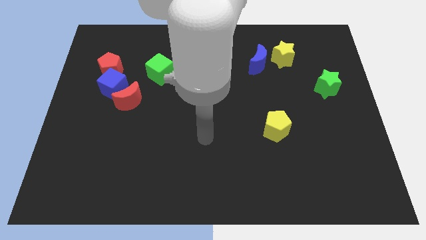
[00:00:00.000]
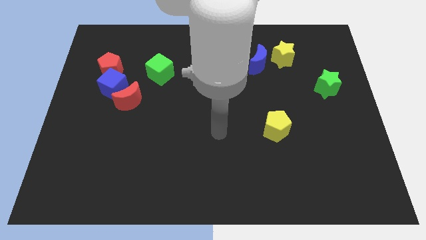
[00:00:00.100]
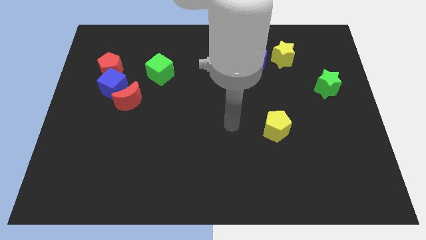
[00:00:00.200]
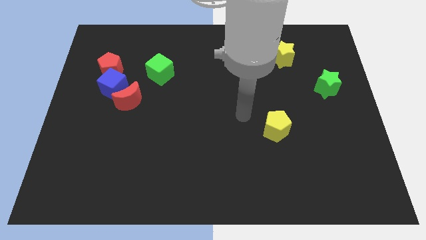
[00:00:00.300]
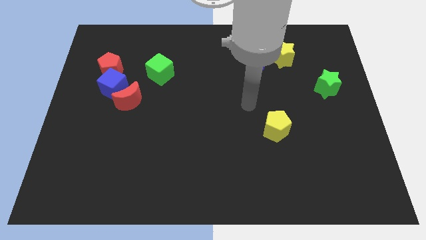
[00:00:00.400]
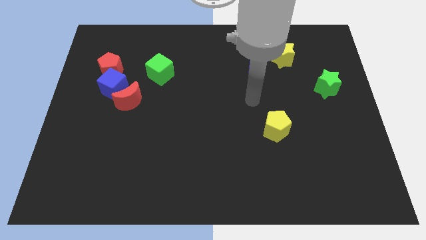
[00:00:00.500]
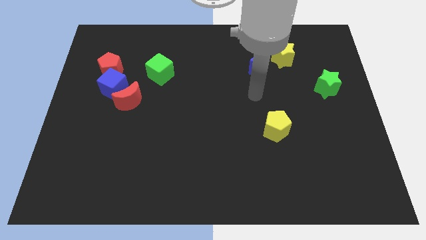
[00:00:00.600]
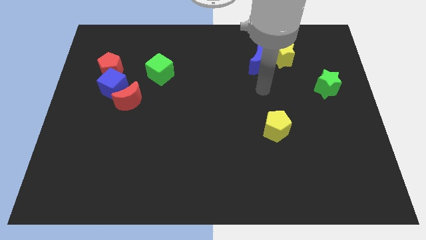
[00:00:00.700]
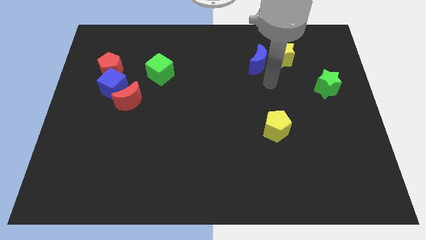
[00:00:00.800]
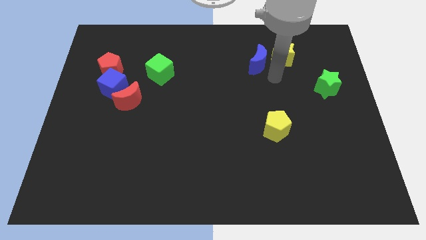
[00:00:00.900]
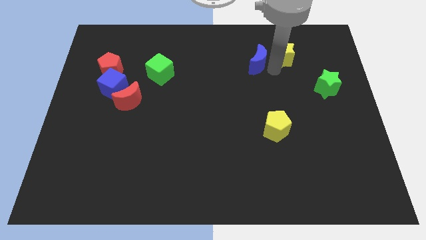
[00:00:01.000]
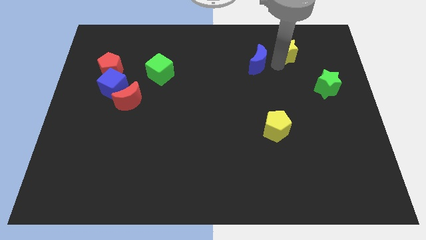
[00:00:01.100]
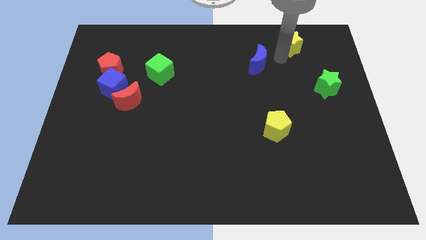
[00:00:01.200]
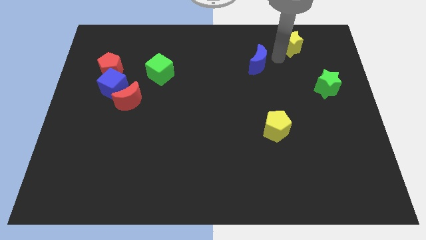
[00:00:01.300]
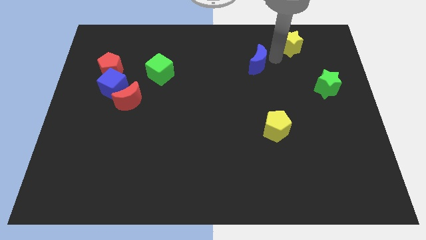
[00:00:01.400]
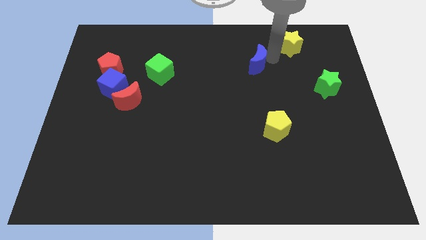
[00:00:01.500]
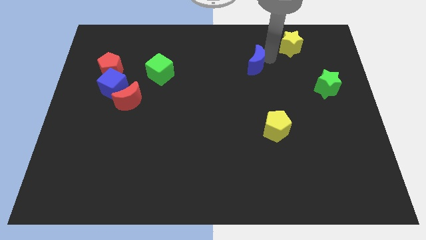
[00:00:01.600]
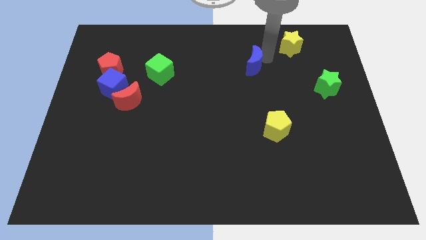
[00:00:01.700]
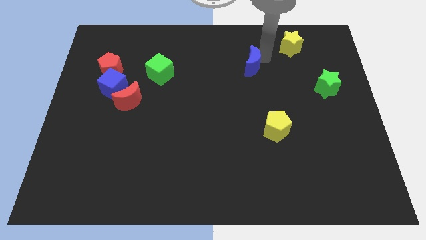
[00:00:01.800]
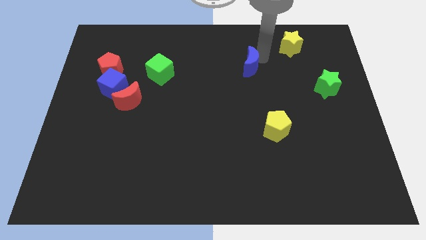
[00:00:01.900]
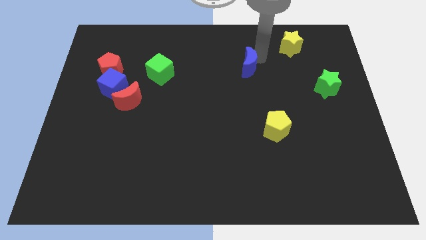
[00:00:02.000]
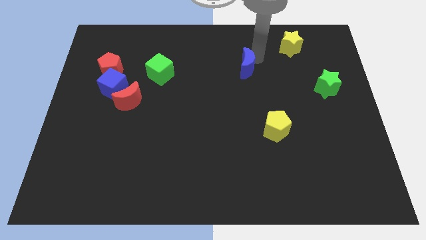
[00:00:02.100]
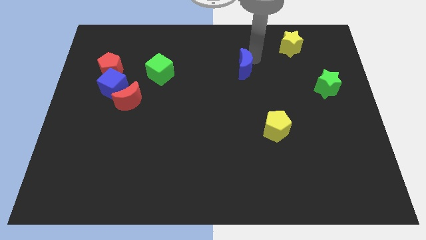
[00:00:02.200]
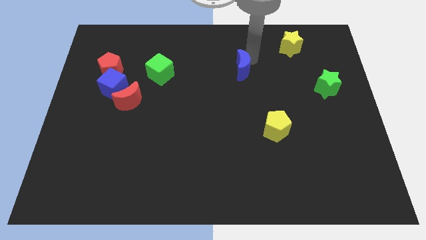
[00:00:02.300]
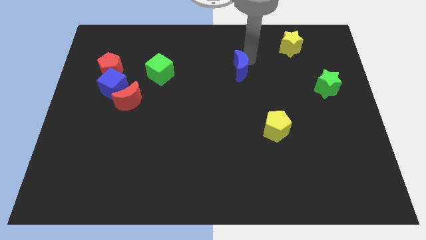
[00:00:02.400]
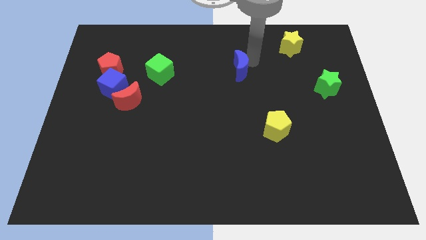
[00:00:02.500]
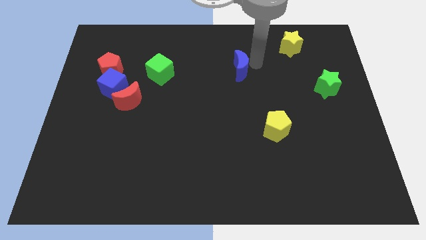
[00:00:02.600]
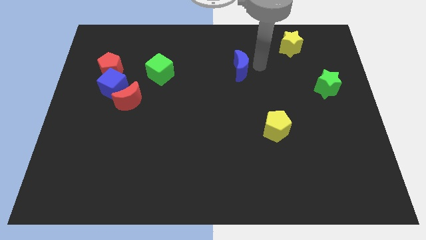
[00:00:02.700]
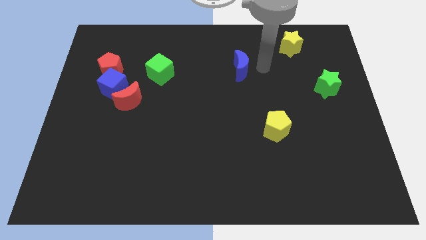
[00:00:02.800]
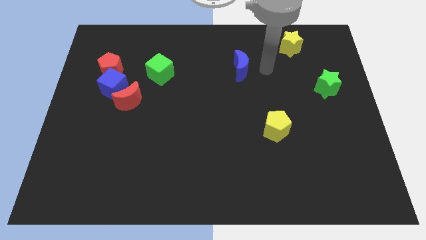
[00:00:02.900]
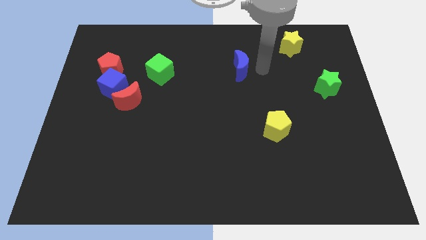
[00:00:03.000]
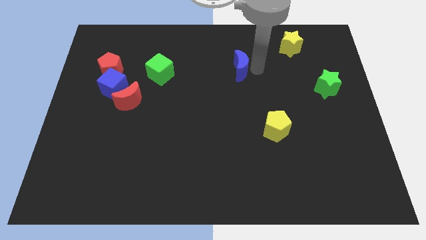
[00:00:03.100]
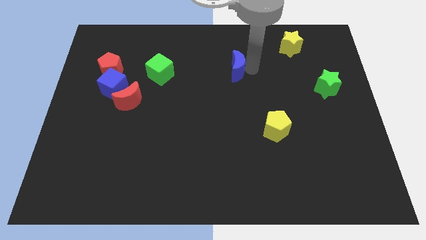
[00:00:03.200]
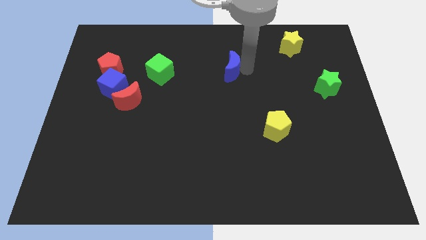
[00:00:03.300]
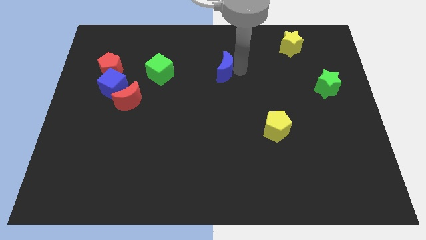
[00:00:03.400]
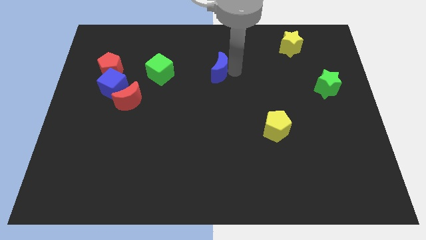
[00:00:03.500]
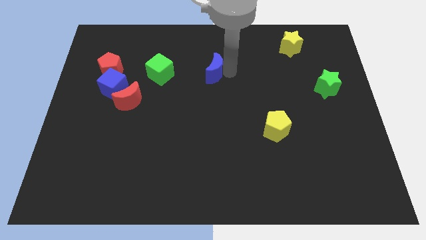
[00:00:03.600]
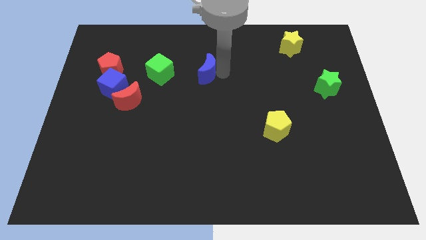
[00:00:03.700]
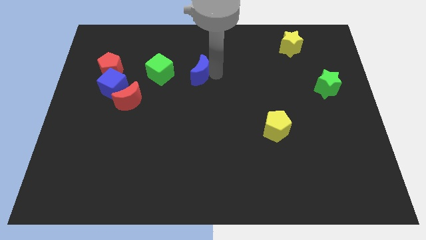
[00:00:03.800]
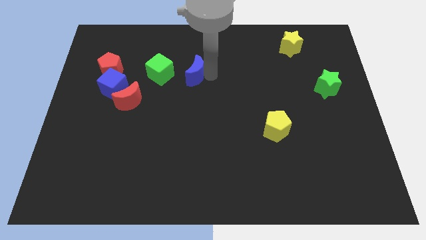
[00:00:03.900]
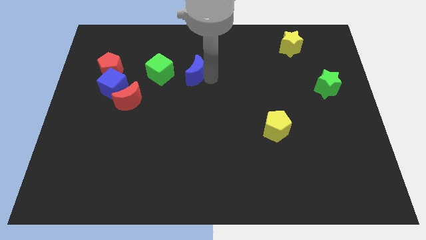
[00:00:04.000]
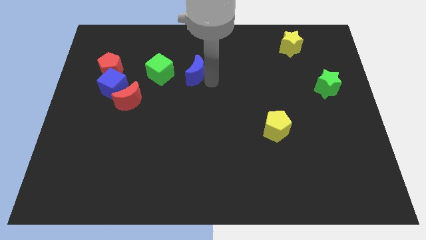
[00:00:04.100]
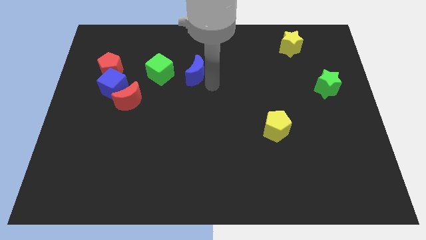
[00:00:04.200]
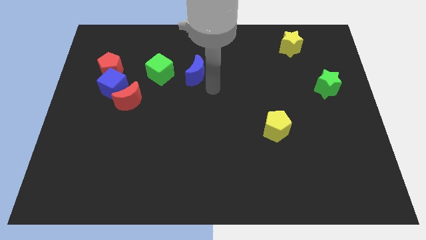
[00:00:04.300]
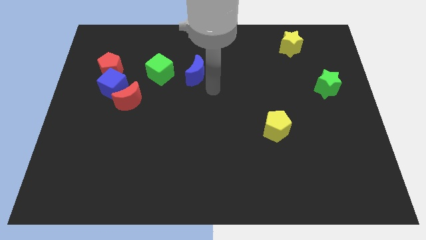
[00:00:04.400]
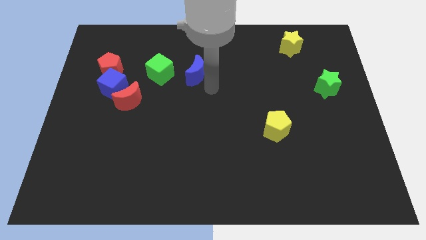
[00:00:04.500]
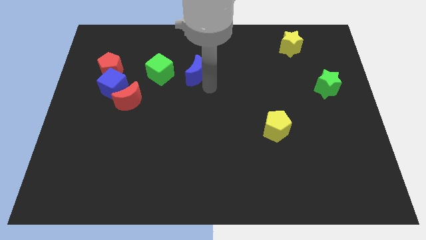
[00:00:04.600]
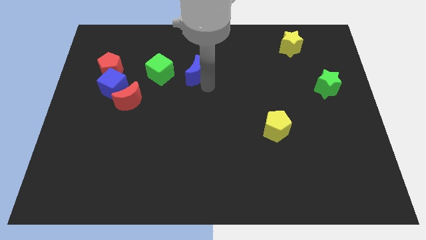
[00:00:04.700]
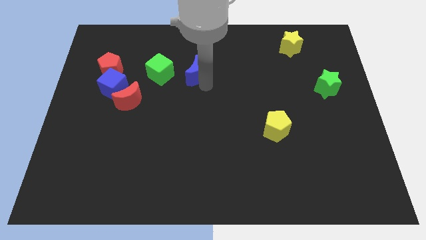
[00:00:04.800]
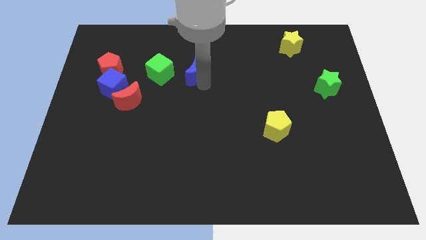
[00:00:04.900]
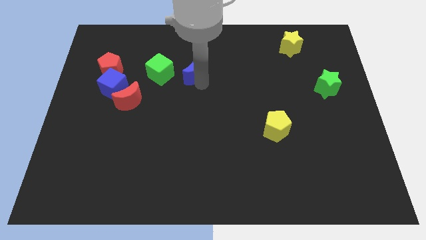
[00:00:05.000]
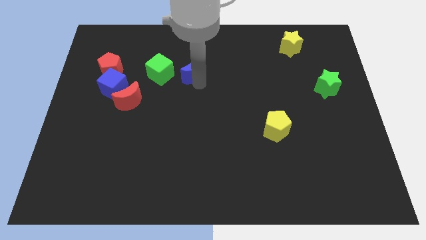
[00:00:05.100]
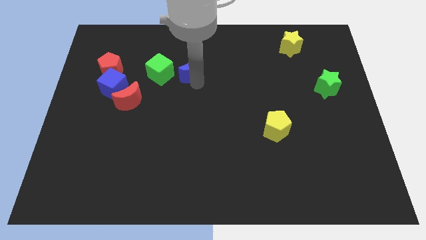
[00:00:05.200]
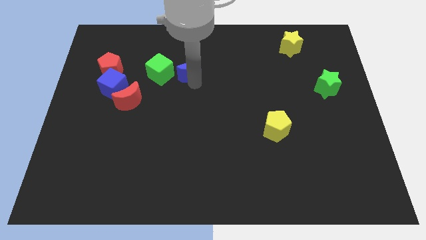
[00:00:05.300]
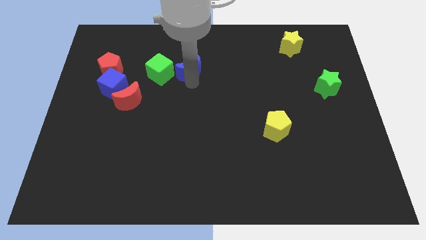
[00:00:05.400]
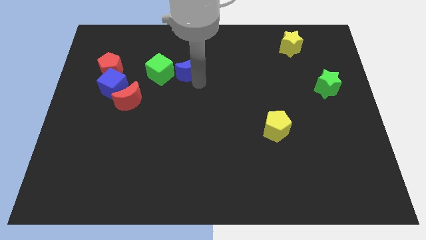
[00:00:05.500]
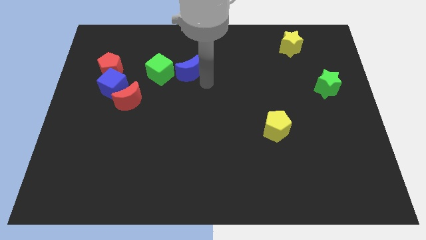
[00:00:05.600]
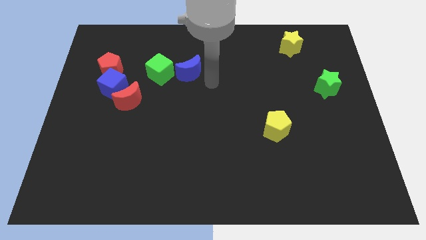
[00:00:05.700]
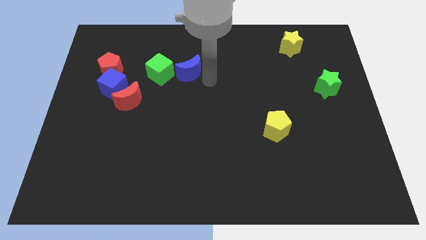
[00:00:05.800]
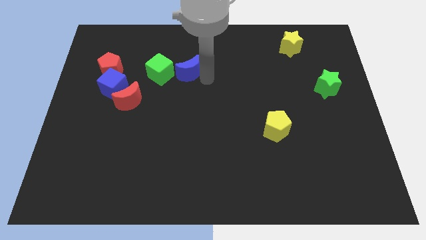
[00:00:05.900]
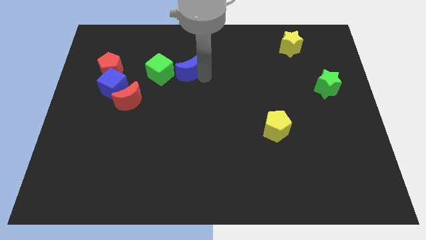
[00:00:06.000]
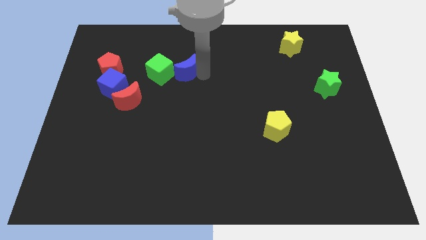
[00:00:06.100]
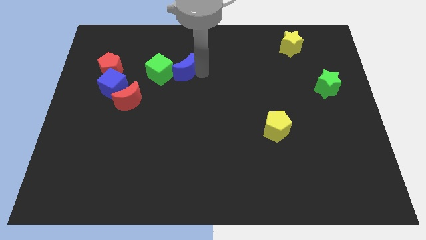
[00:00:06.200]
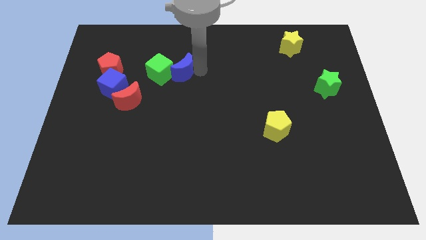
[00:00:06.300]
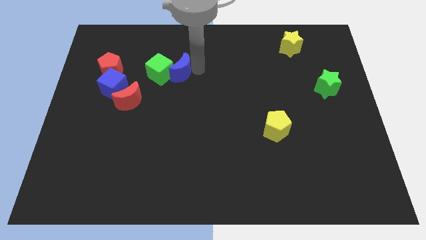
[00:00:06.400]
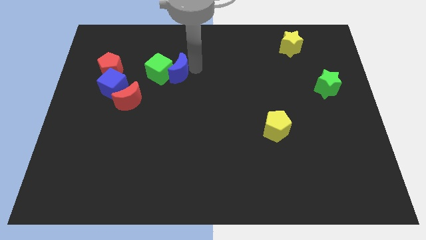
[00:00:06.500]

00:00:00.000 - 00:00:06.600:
move the blue moon to the left

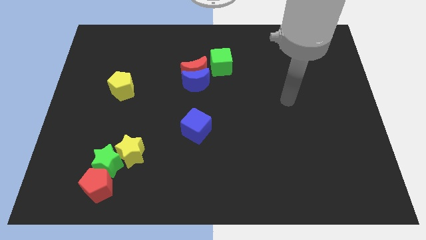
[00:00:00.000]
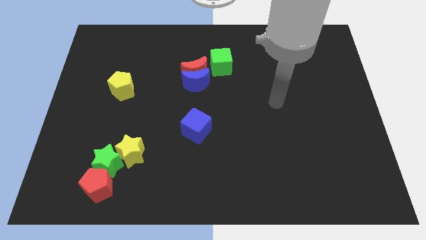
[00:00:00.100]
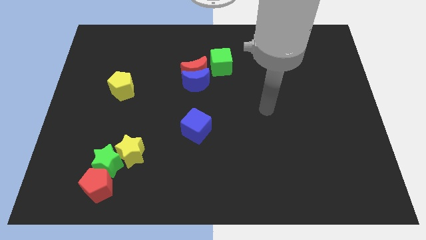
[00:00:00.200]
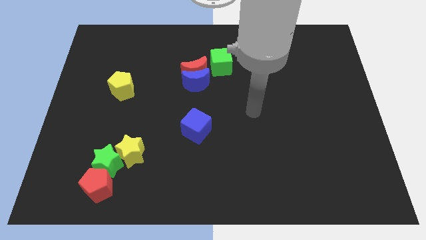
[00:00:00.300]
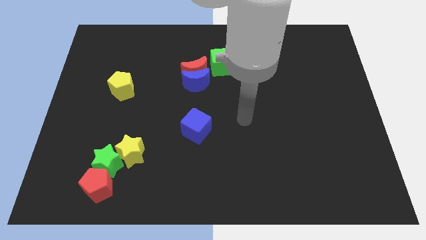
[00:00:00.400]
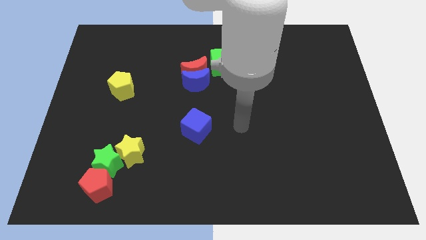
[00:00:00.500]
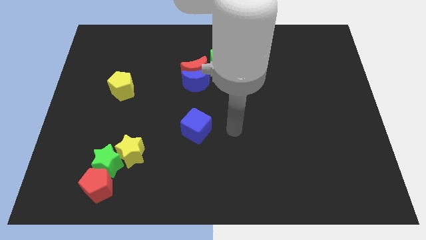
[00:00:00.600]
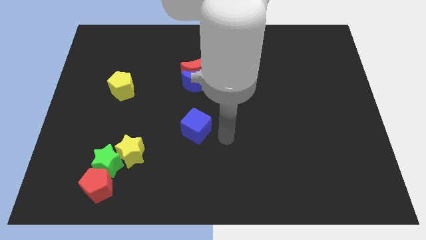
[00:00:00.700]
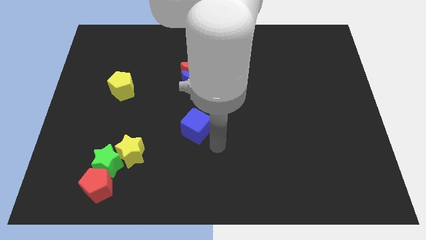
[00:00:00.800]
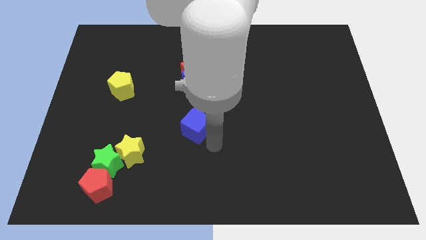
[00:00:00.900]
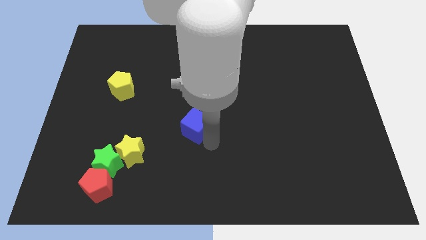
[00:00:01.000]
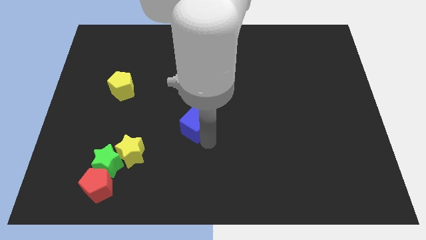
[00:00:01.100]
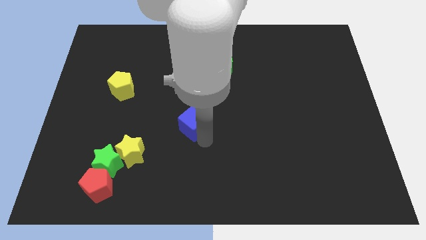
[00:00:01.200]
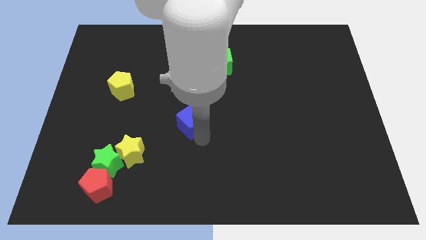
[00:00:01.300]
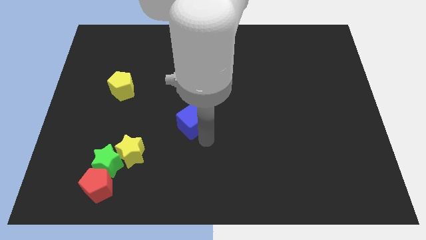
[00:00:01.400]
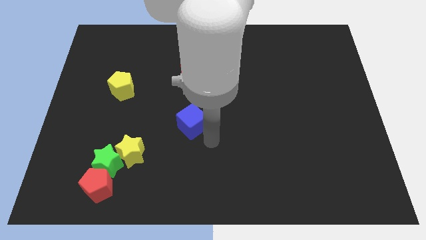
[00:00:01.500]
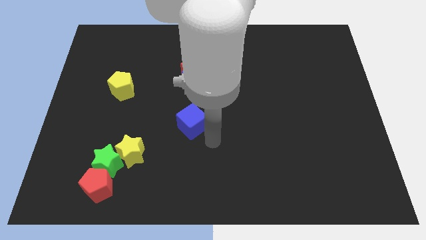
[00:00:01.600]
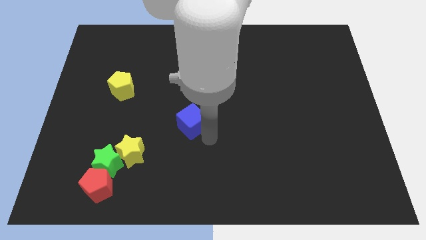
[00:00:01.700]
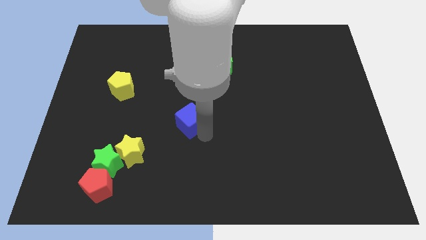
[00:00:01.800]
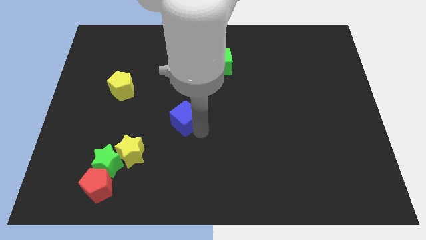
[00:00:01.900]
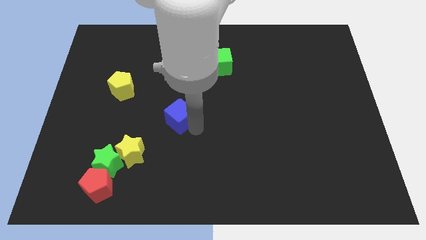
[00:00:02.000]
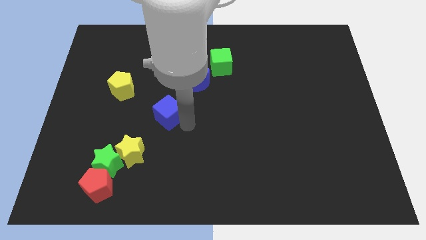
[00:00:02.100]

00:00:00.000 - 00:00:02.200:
slightly slide the blue cube upwards and left
